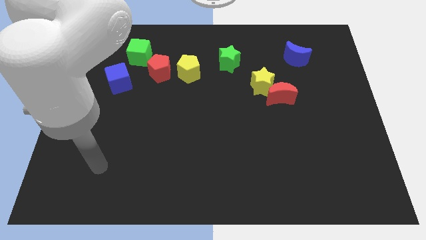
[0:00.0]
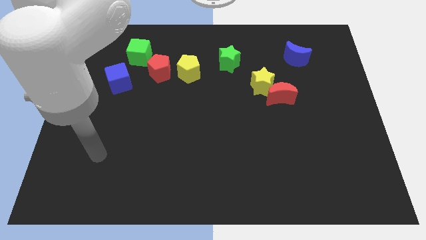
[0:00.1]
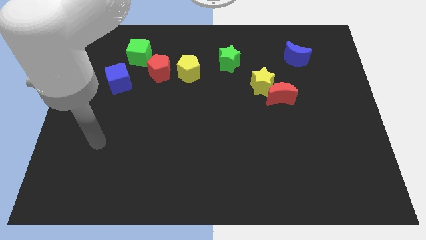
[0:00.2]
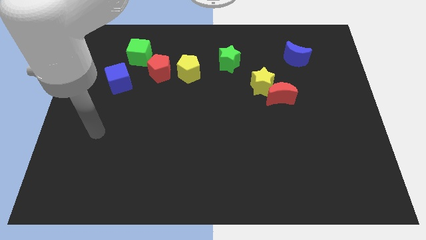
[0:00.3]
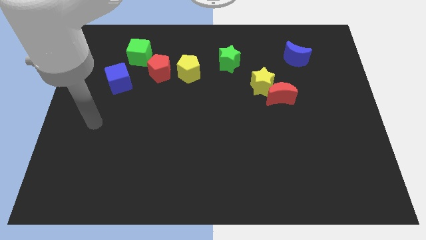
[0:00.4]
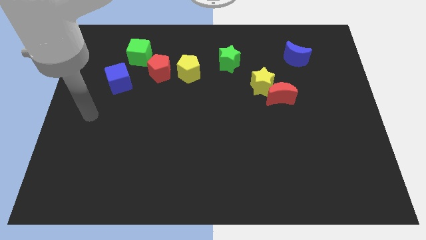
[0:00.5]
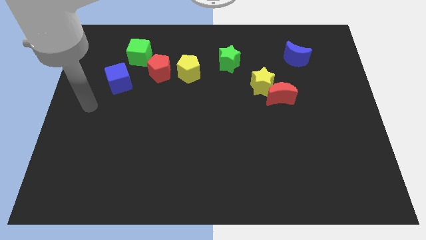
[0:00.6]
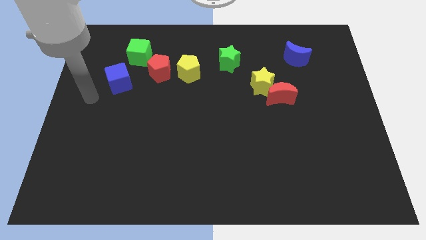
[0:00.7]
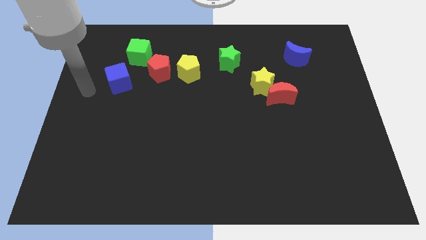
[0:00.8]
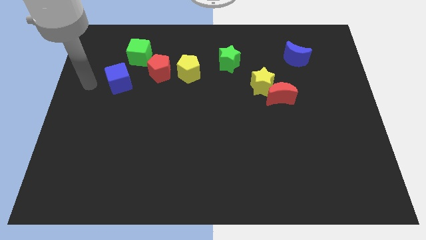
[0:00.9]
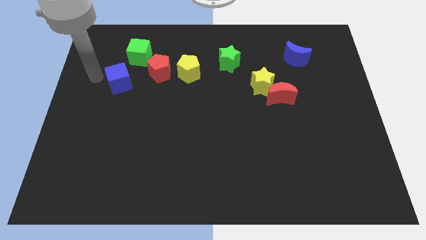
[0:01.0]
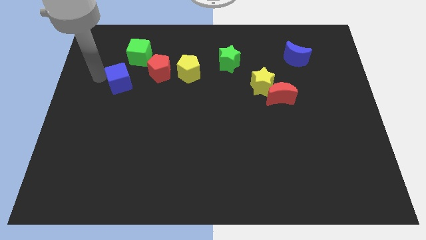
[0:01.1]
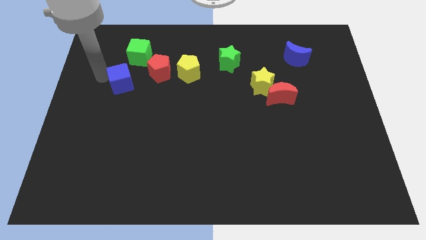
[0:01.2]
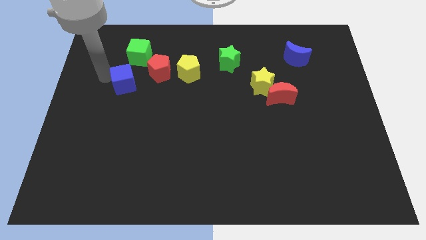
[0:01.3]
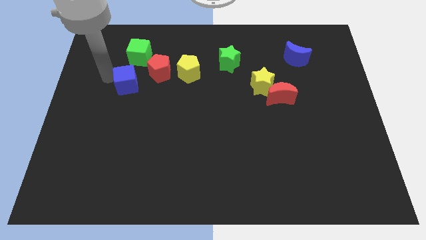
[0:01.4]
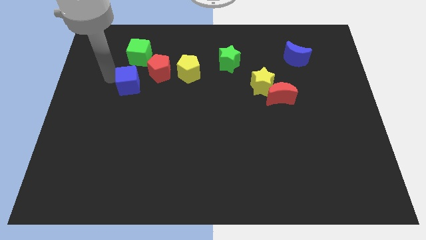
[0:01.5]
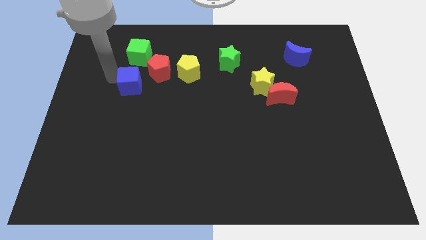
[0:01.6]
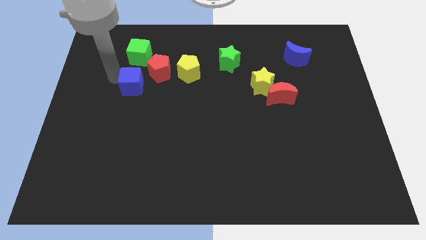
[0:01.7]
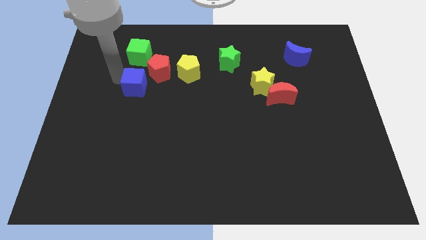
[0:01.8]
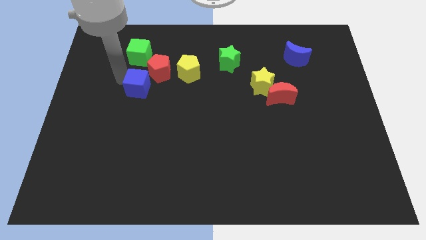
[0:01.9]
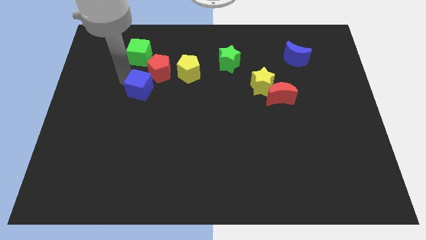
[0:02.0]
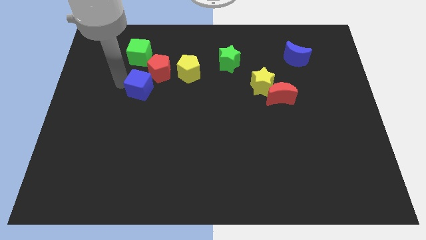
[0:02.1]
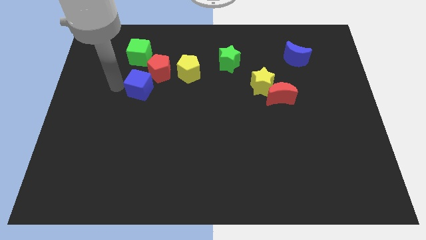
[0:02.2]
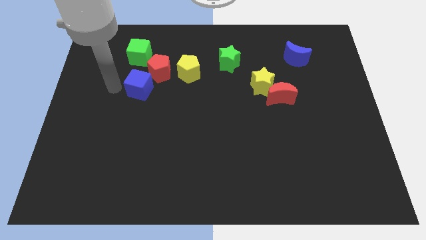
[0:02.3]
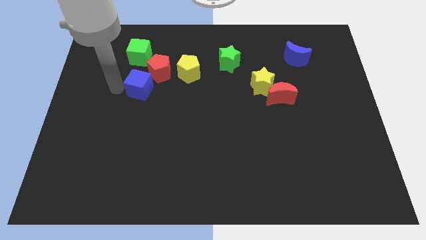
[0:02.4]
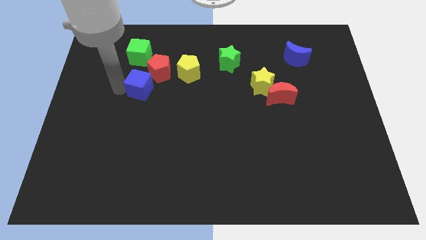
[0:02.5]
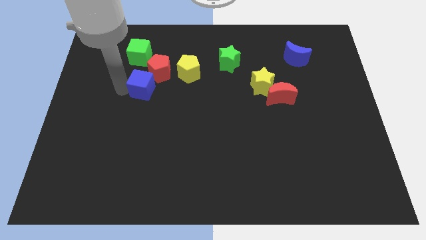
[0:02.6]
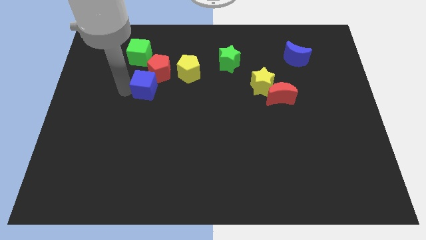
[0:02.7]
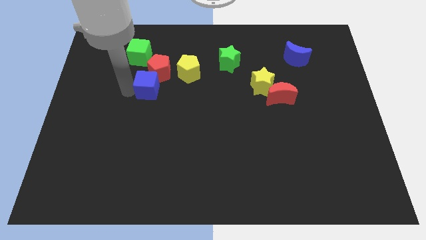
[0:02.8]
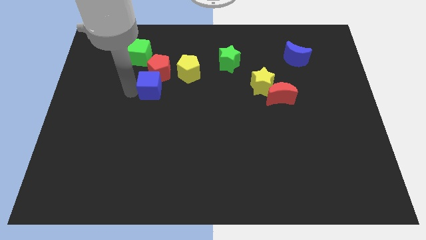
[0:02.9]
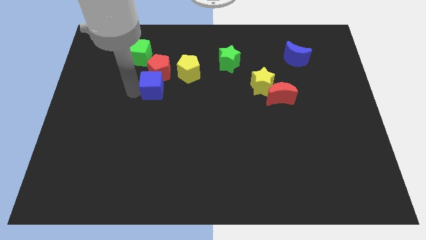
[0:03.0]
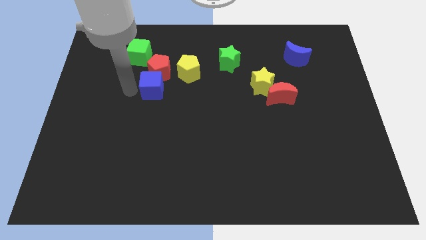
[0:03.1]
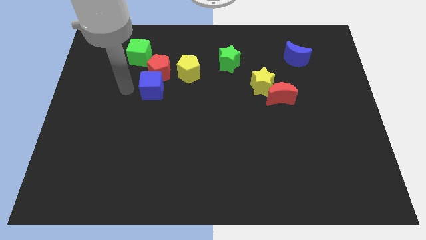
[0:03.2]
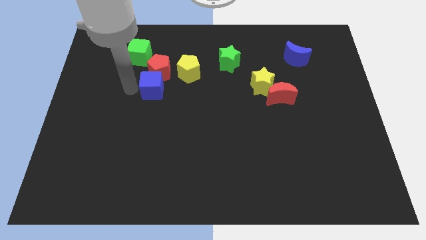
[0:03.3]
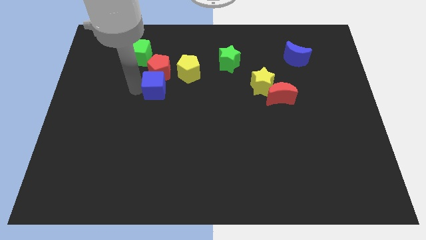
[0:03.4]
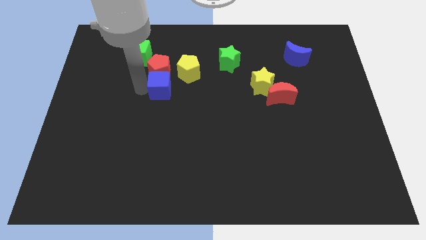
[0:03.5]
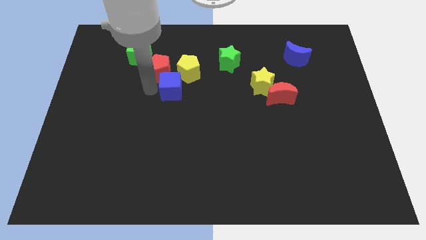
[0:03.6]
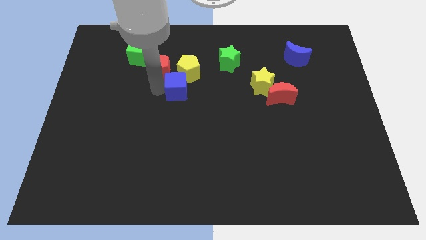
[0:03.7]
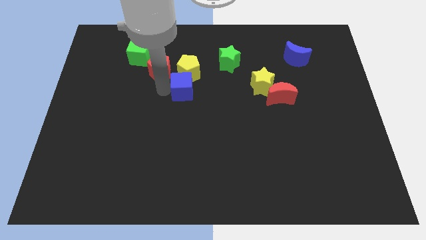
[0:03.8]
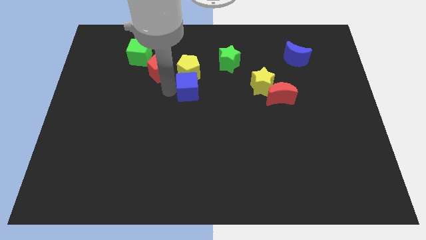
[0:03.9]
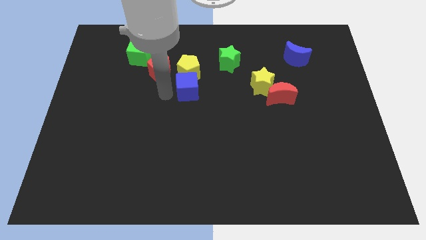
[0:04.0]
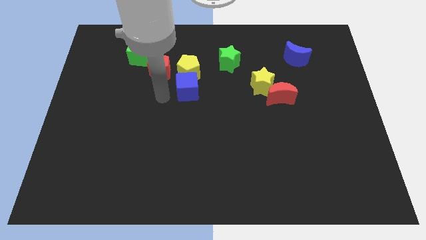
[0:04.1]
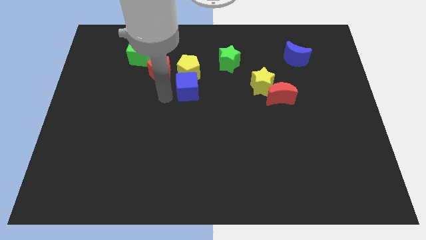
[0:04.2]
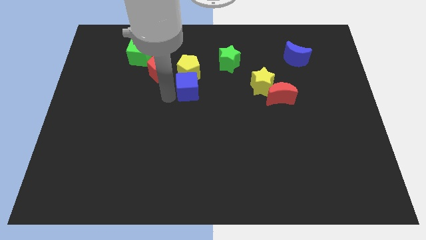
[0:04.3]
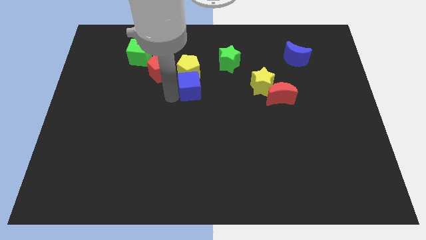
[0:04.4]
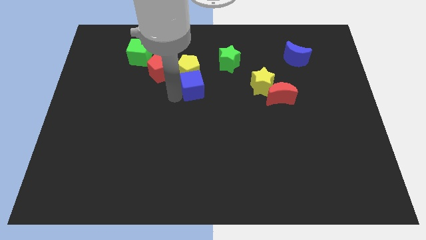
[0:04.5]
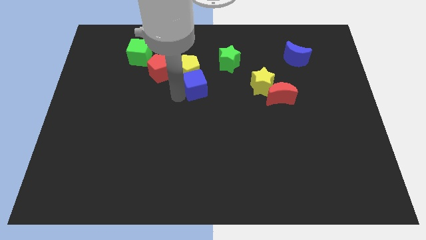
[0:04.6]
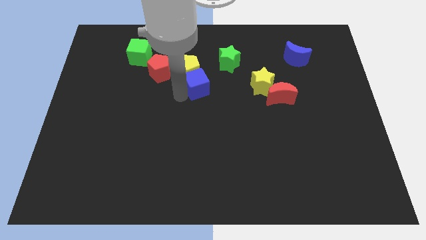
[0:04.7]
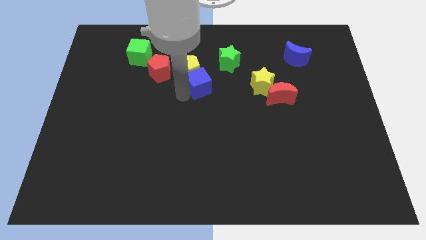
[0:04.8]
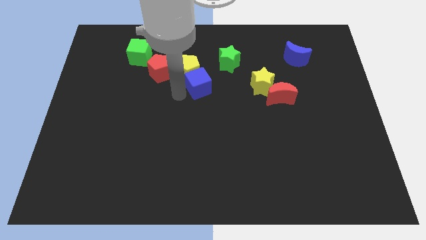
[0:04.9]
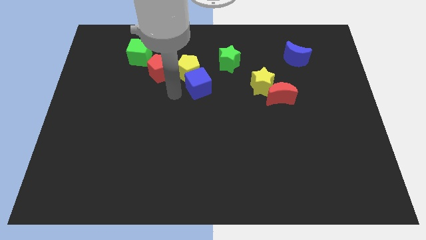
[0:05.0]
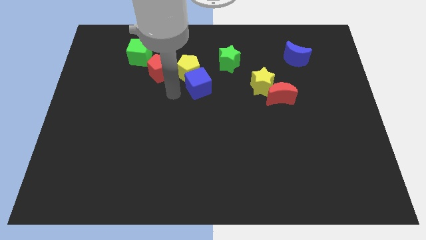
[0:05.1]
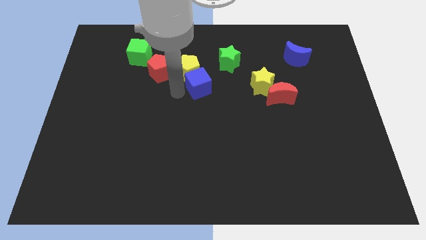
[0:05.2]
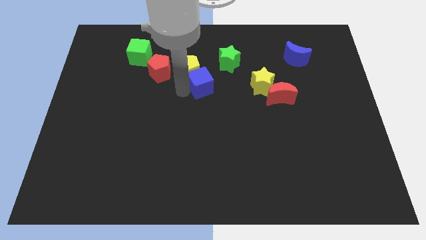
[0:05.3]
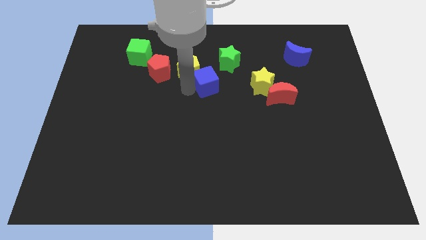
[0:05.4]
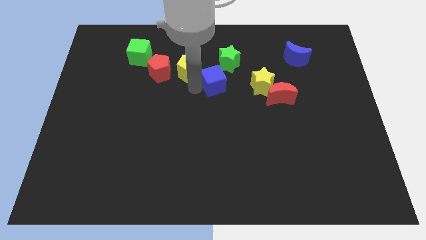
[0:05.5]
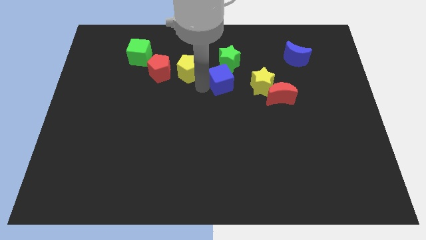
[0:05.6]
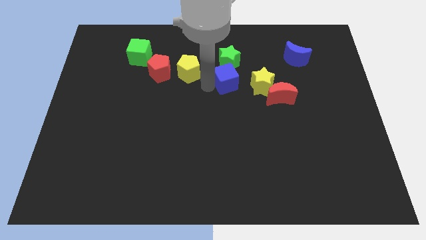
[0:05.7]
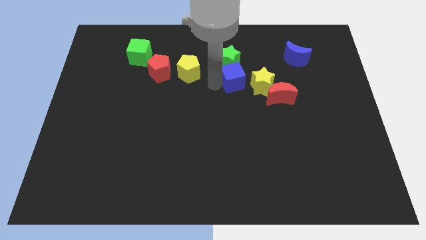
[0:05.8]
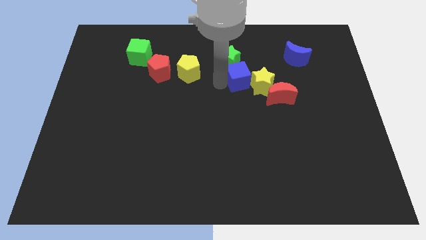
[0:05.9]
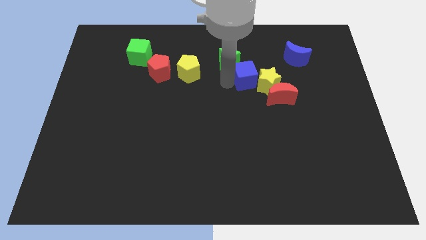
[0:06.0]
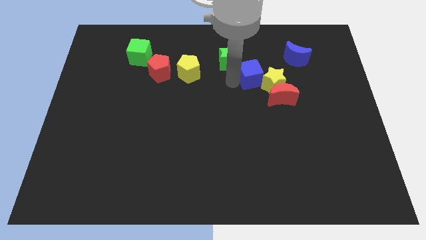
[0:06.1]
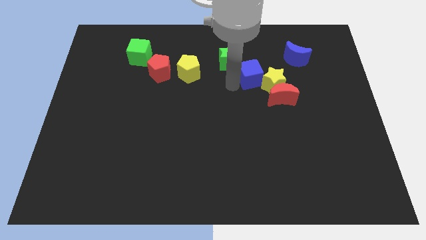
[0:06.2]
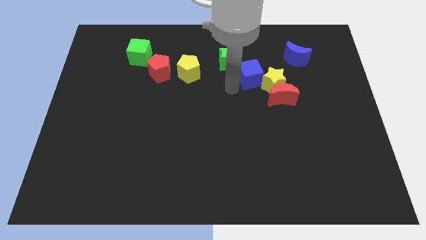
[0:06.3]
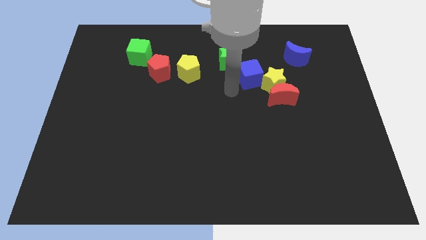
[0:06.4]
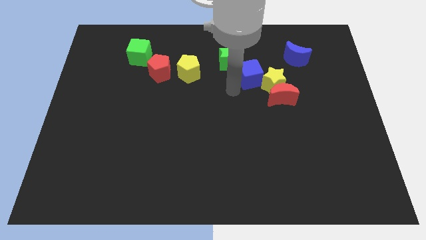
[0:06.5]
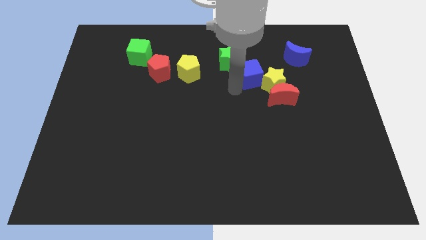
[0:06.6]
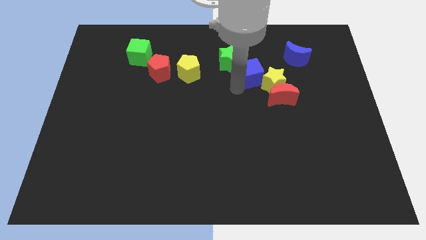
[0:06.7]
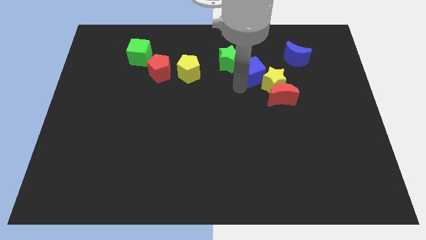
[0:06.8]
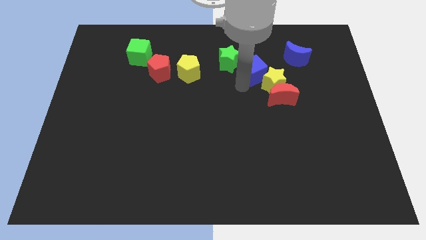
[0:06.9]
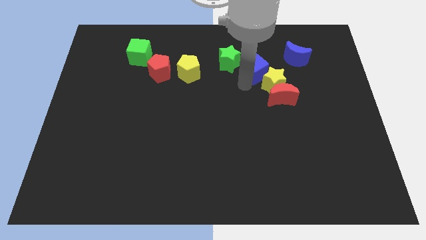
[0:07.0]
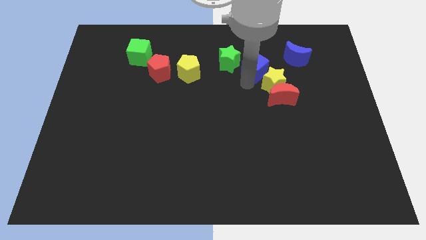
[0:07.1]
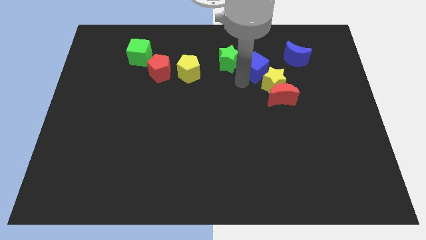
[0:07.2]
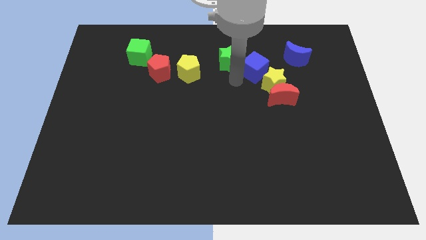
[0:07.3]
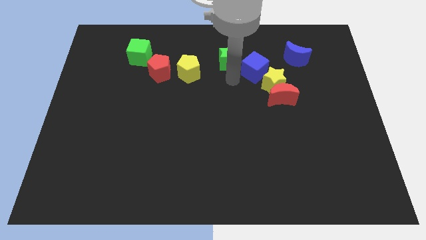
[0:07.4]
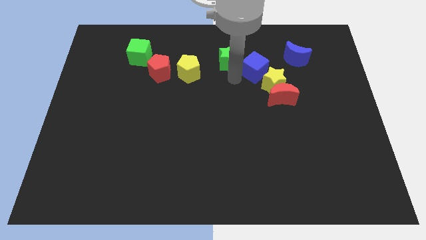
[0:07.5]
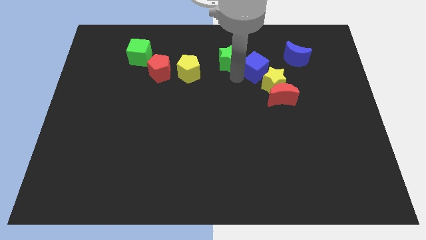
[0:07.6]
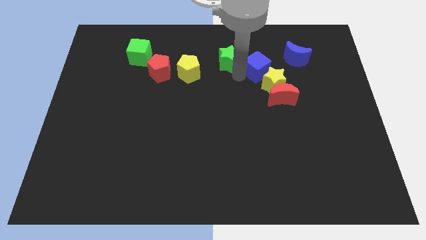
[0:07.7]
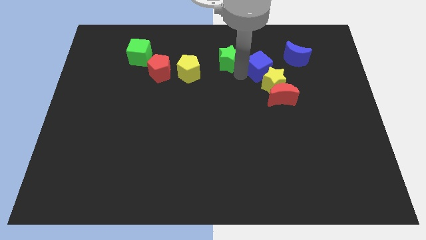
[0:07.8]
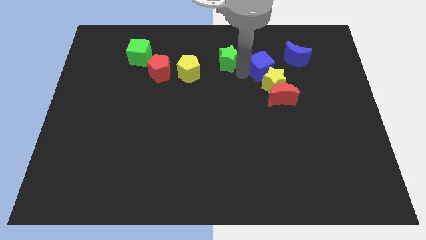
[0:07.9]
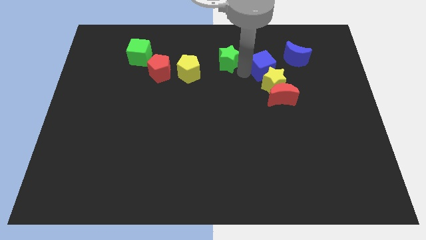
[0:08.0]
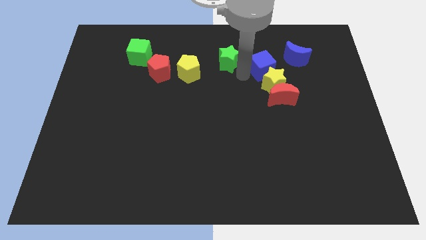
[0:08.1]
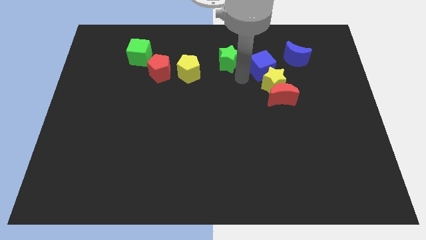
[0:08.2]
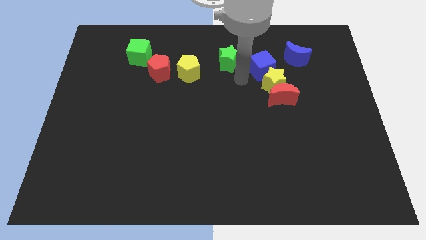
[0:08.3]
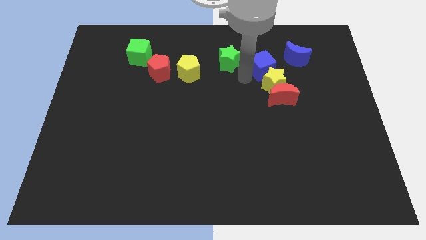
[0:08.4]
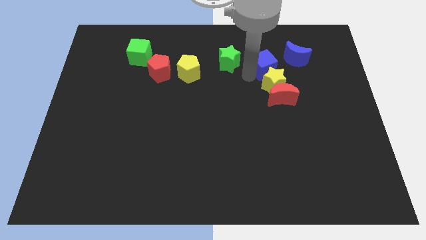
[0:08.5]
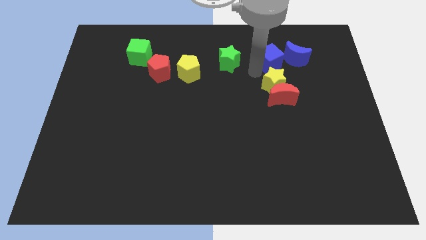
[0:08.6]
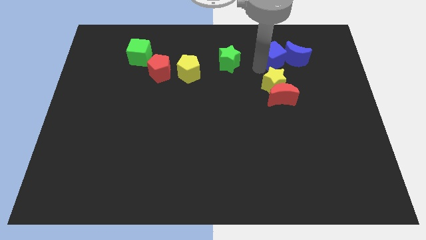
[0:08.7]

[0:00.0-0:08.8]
slide the blue cube next to the blue moon
